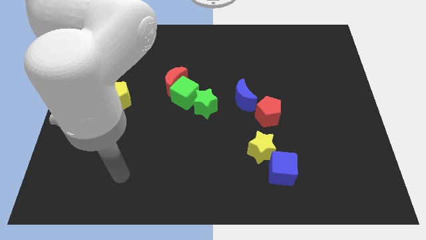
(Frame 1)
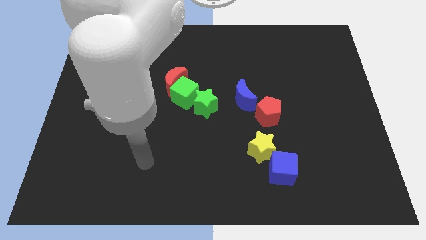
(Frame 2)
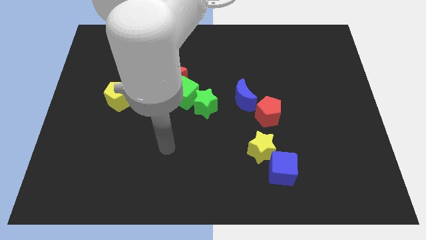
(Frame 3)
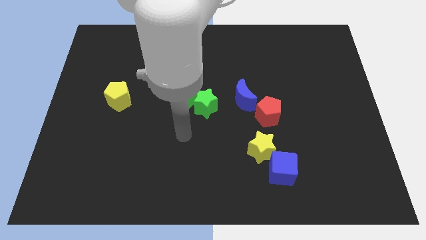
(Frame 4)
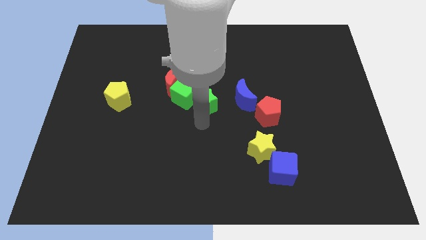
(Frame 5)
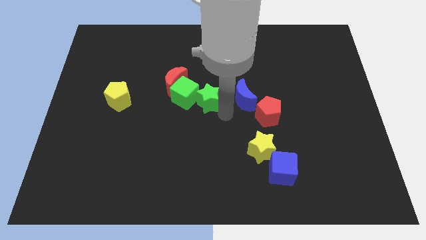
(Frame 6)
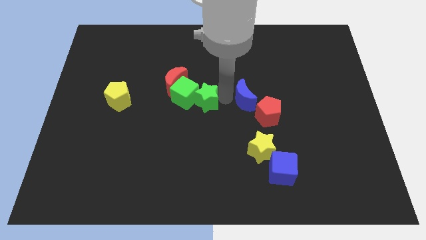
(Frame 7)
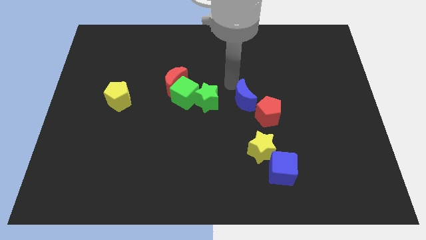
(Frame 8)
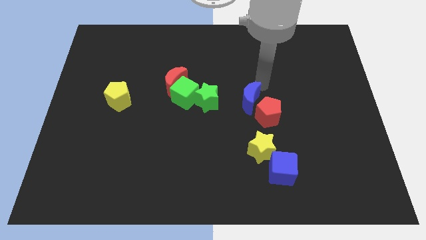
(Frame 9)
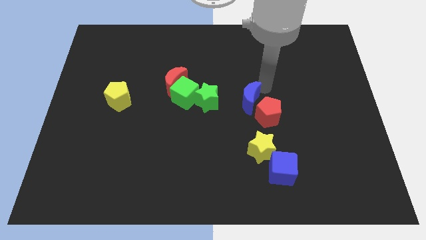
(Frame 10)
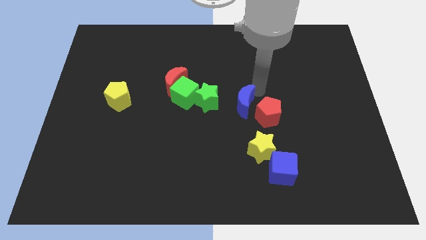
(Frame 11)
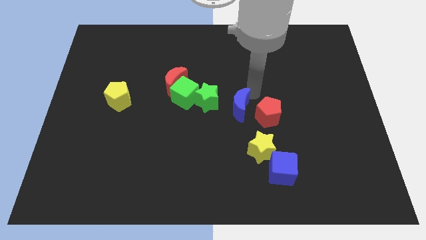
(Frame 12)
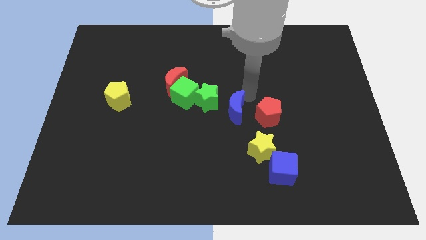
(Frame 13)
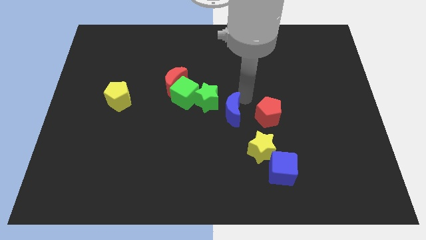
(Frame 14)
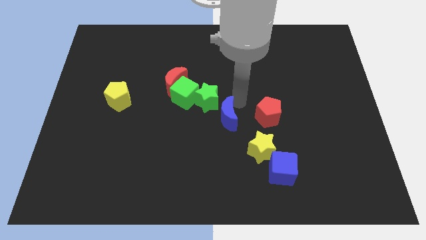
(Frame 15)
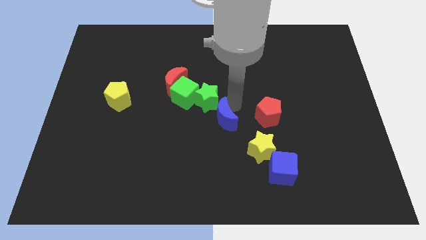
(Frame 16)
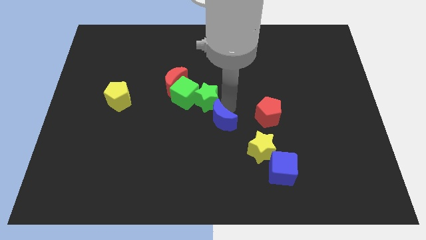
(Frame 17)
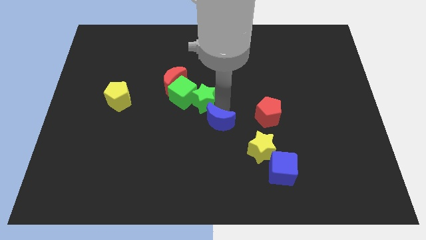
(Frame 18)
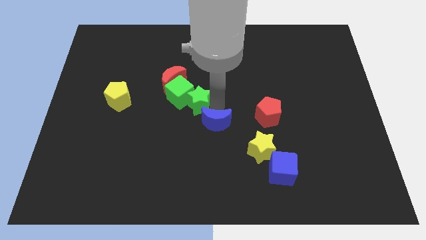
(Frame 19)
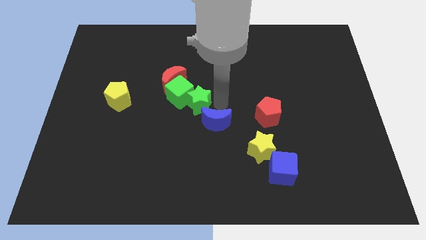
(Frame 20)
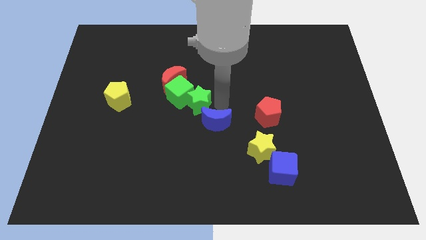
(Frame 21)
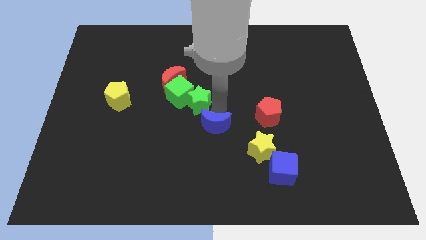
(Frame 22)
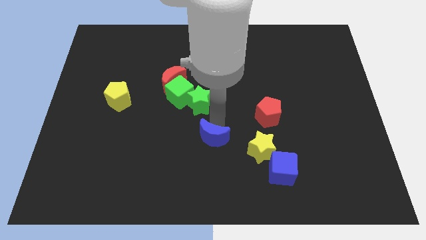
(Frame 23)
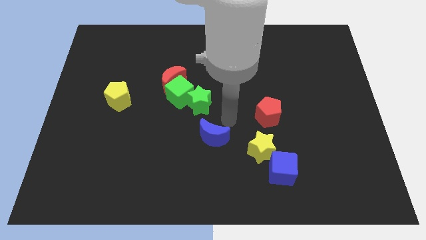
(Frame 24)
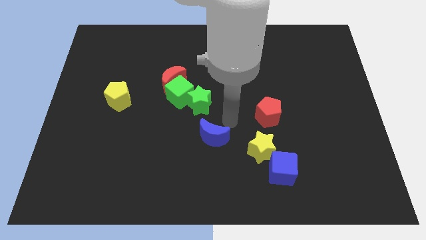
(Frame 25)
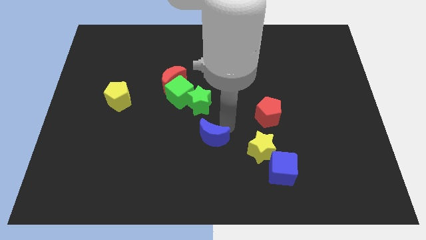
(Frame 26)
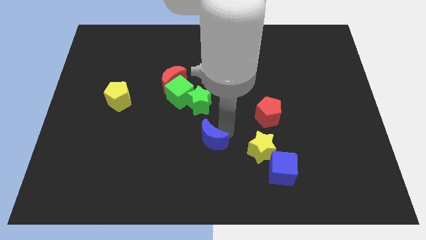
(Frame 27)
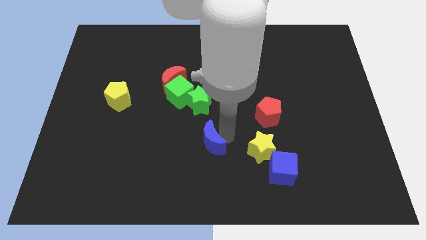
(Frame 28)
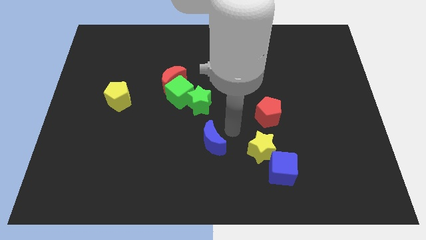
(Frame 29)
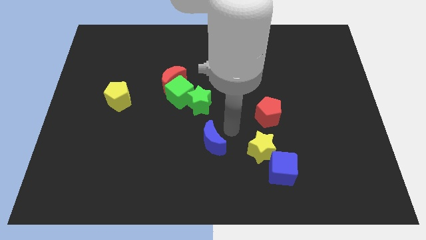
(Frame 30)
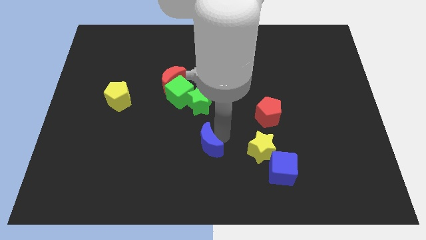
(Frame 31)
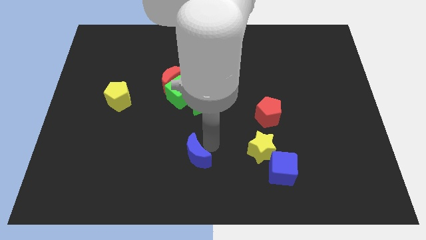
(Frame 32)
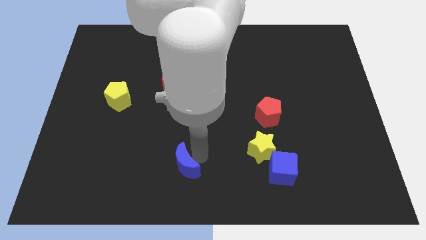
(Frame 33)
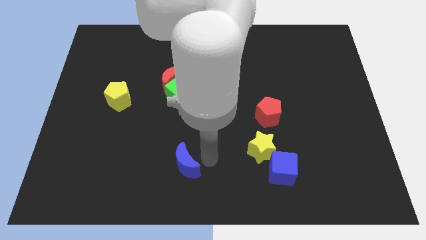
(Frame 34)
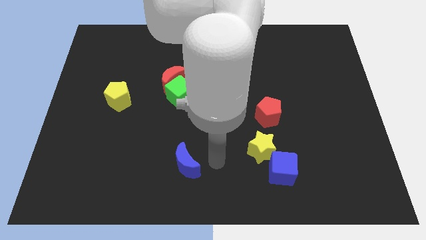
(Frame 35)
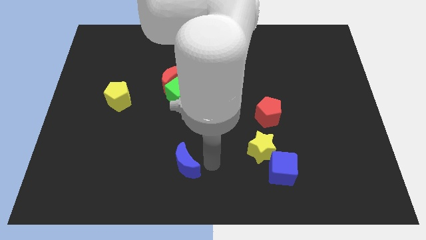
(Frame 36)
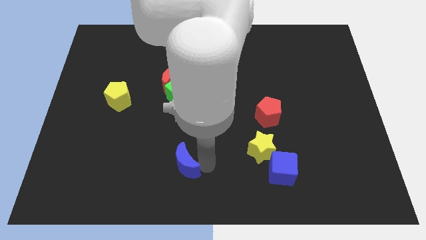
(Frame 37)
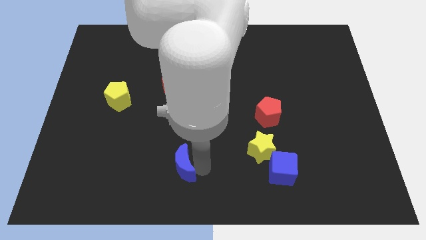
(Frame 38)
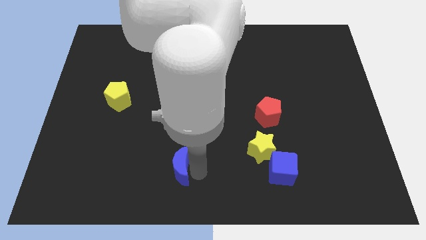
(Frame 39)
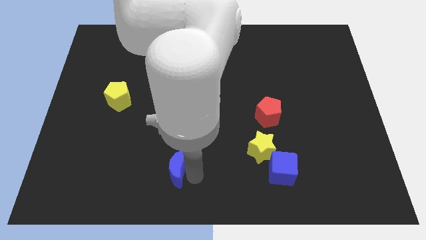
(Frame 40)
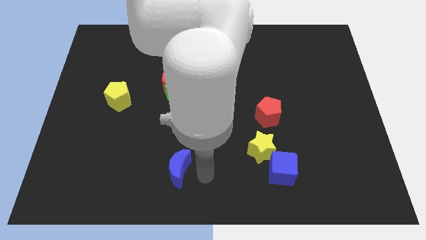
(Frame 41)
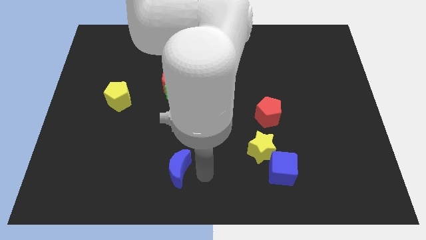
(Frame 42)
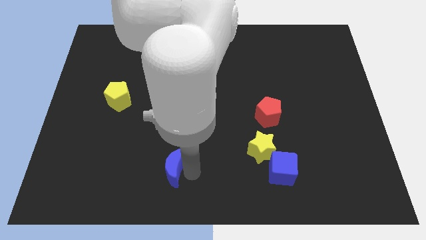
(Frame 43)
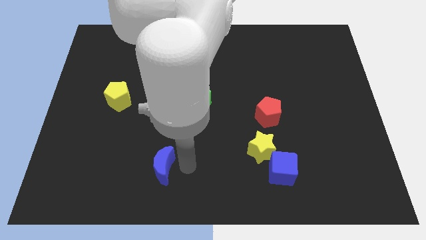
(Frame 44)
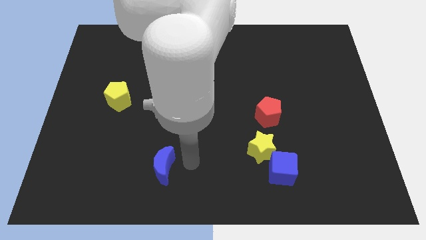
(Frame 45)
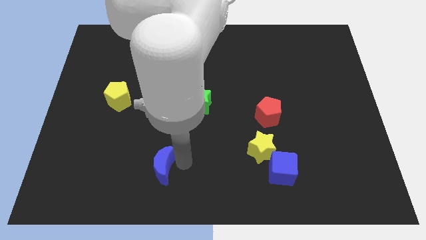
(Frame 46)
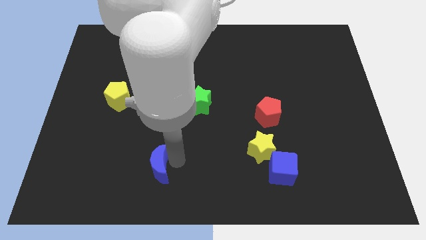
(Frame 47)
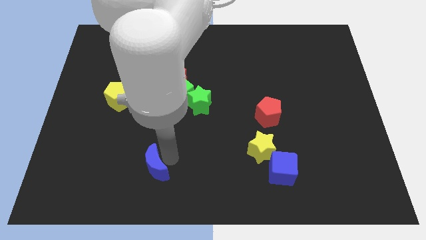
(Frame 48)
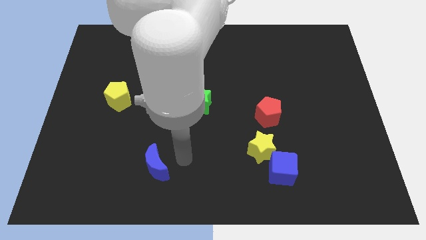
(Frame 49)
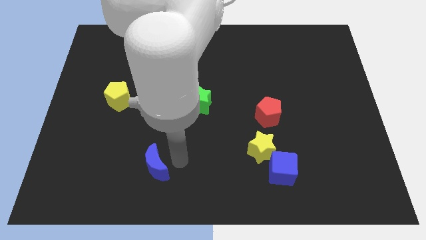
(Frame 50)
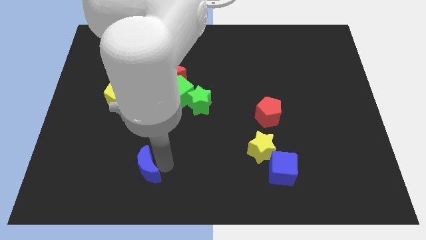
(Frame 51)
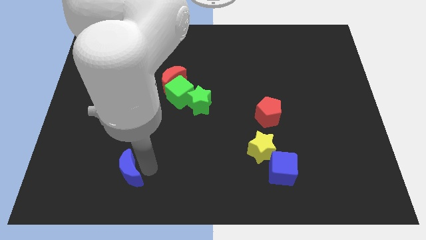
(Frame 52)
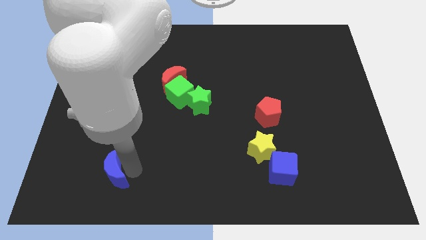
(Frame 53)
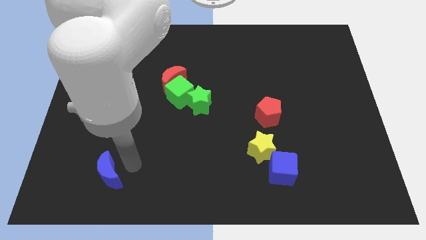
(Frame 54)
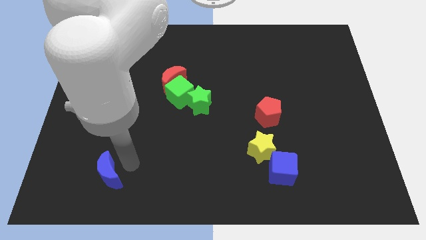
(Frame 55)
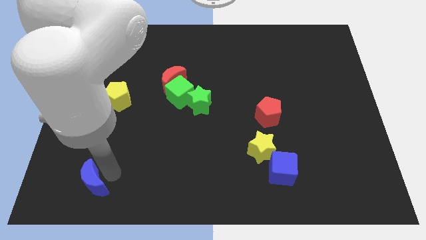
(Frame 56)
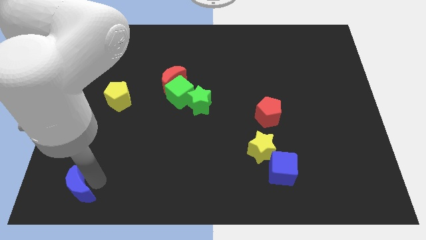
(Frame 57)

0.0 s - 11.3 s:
push the blue moon to the bottom left corner

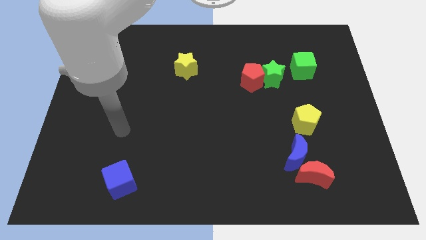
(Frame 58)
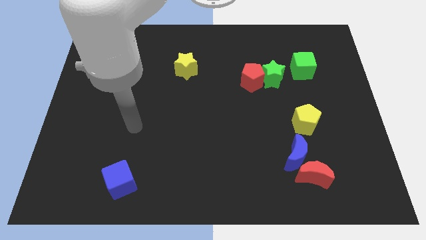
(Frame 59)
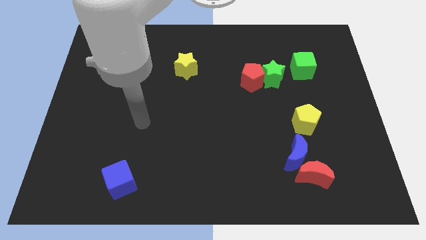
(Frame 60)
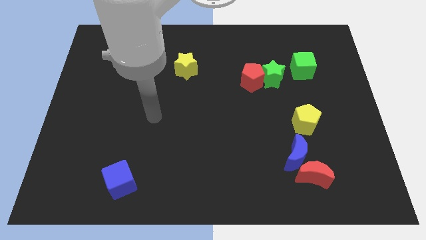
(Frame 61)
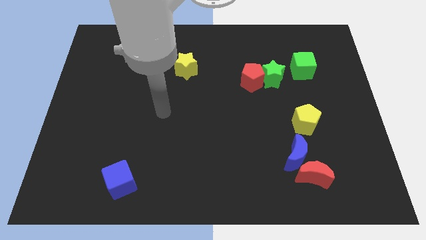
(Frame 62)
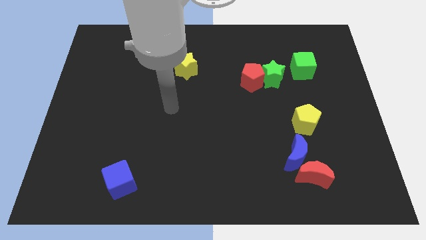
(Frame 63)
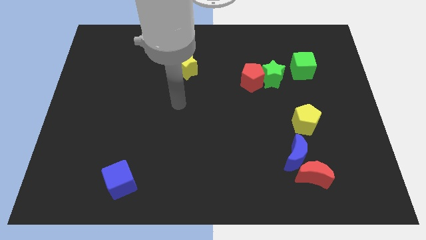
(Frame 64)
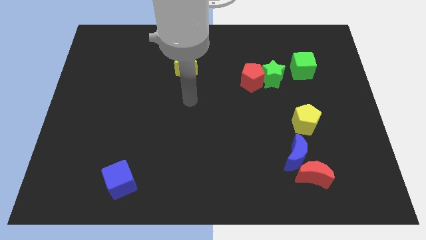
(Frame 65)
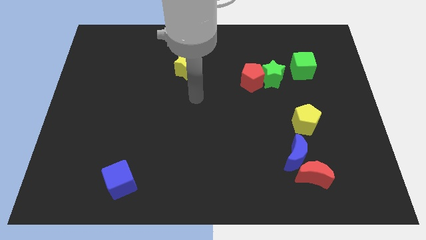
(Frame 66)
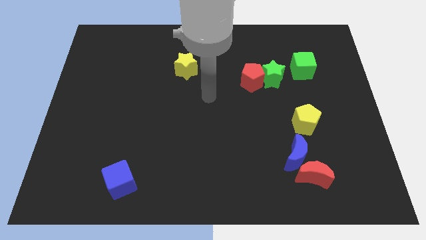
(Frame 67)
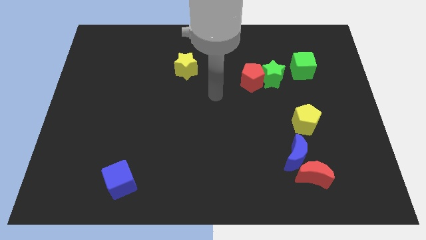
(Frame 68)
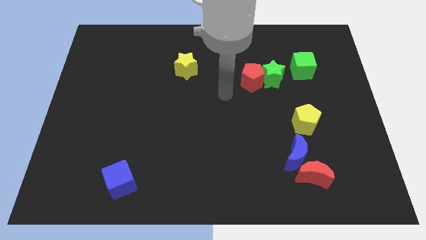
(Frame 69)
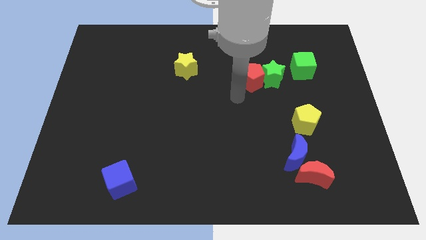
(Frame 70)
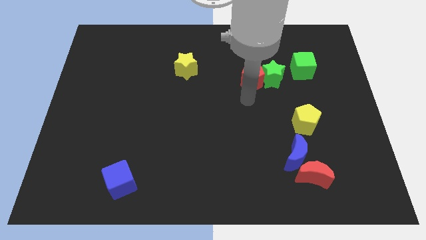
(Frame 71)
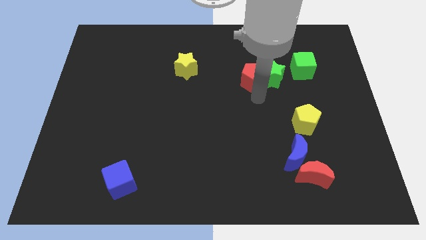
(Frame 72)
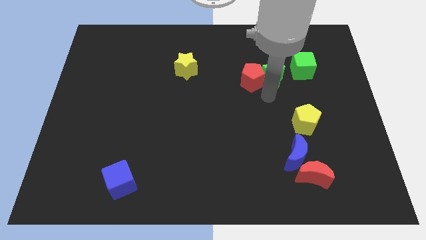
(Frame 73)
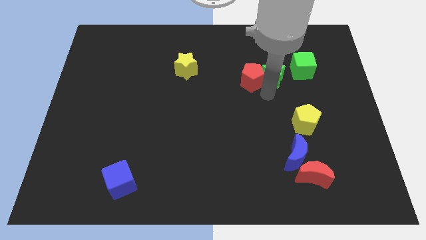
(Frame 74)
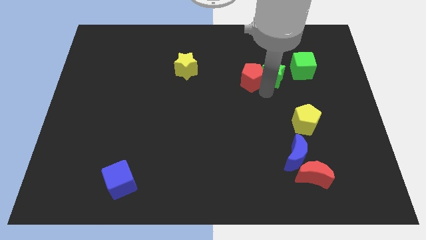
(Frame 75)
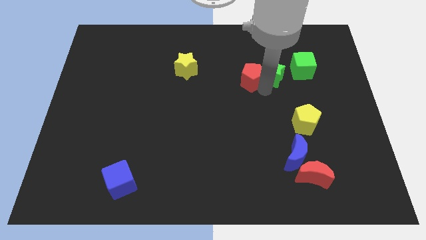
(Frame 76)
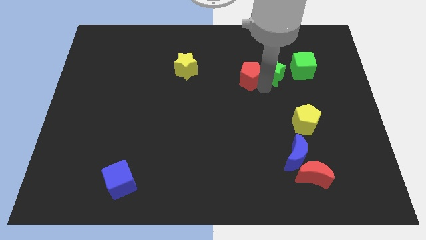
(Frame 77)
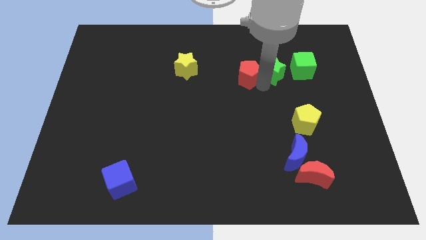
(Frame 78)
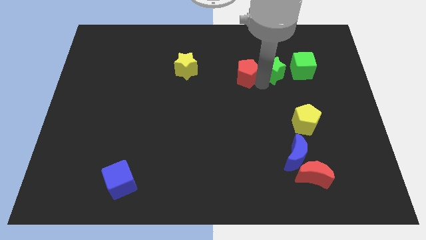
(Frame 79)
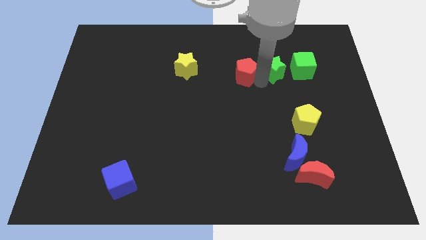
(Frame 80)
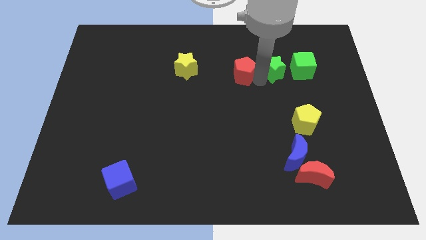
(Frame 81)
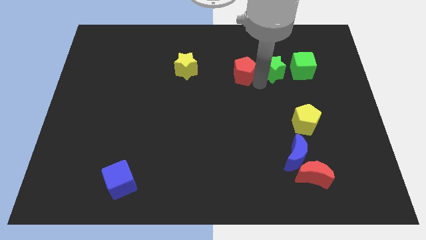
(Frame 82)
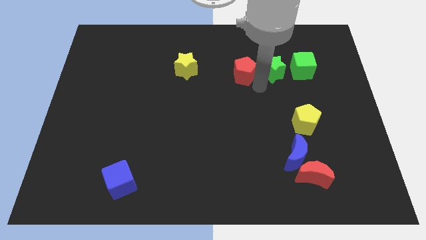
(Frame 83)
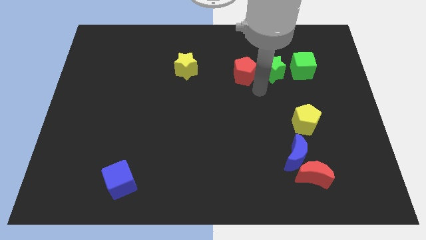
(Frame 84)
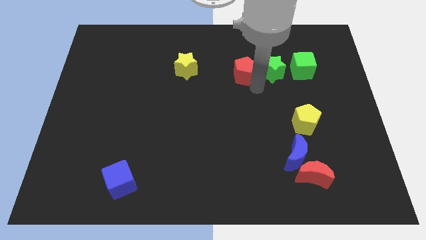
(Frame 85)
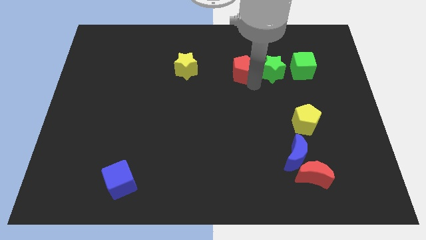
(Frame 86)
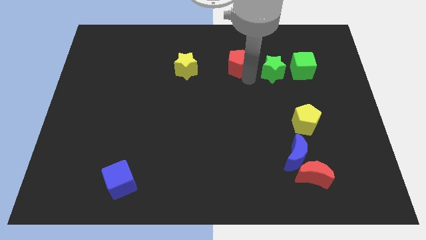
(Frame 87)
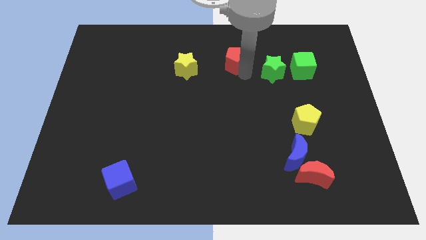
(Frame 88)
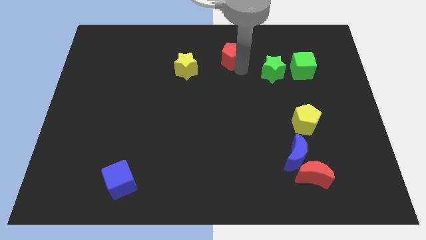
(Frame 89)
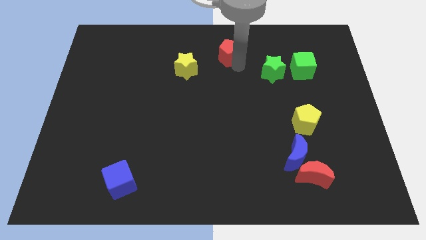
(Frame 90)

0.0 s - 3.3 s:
slide the red pentagon to the top side
